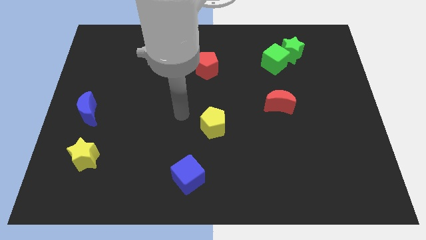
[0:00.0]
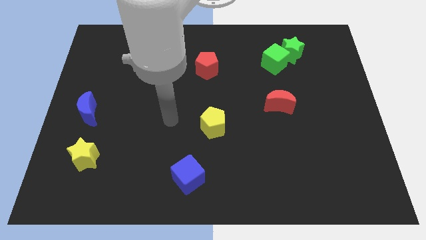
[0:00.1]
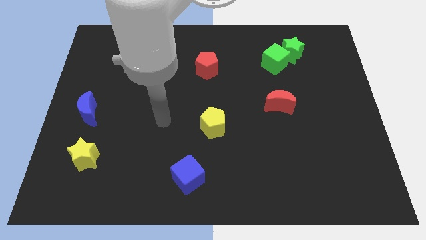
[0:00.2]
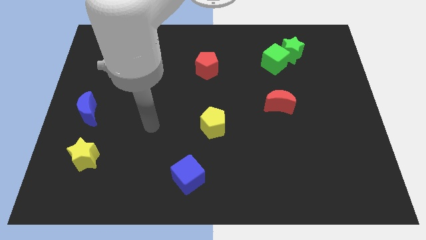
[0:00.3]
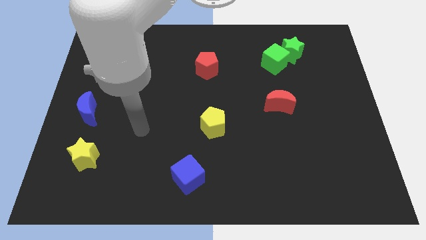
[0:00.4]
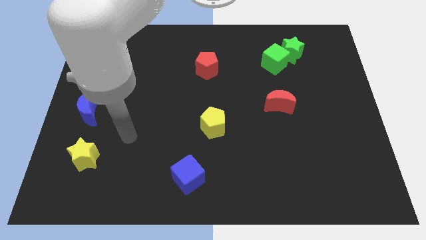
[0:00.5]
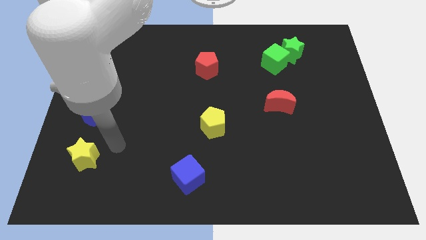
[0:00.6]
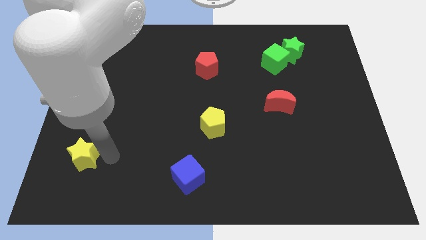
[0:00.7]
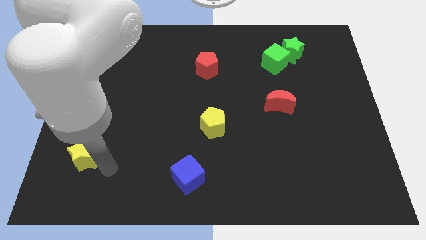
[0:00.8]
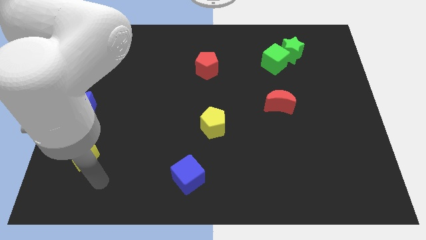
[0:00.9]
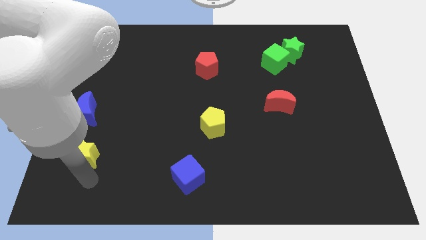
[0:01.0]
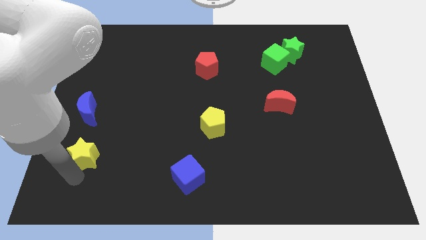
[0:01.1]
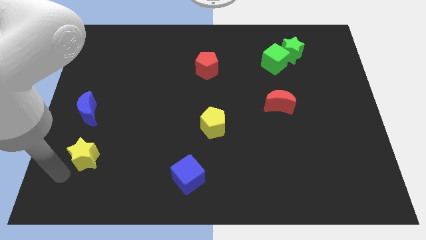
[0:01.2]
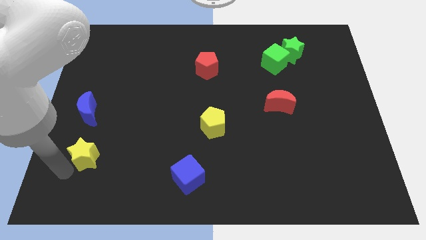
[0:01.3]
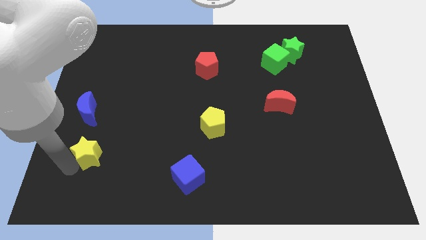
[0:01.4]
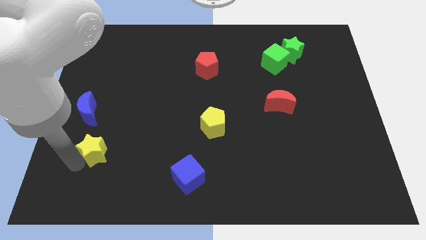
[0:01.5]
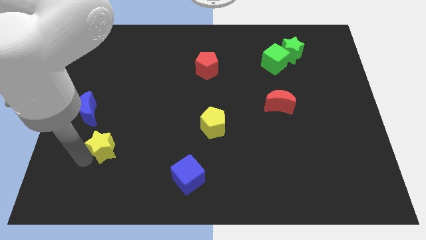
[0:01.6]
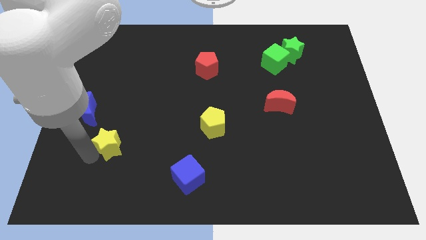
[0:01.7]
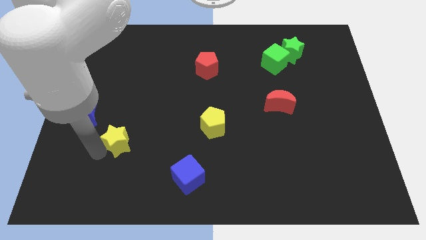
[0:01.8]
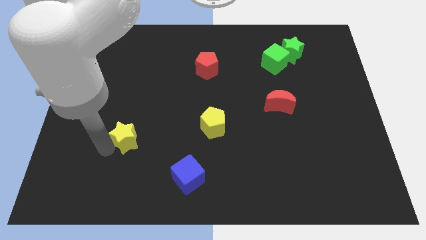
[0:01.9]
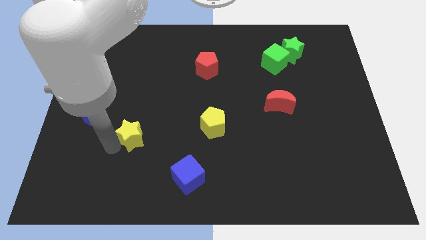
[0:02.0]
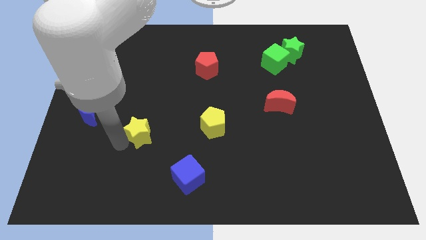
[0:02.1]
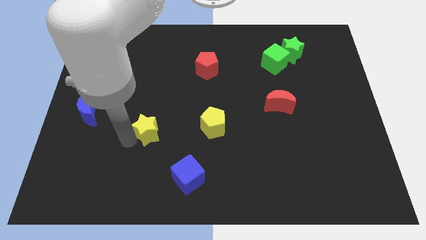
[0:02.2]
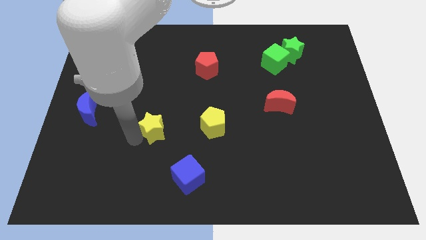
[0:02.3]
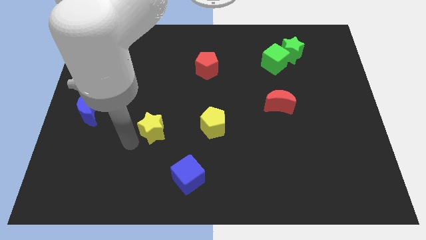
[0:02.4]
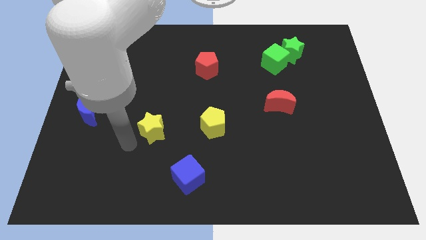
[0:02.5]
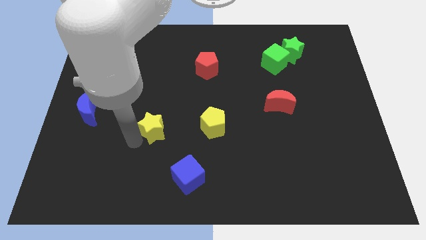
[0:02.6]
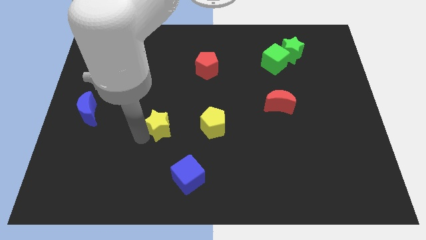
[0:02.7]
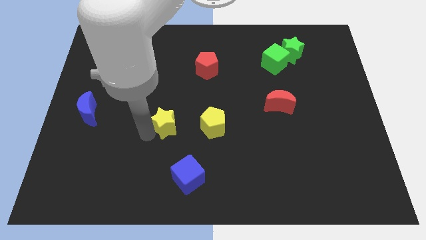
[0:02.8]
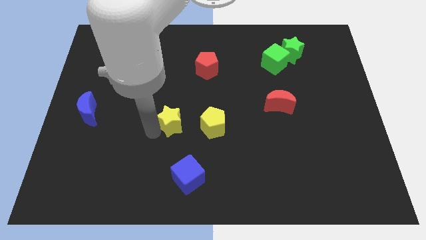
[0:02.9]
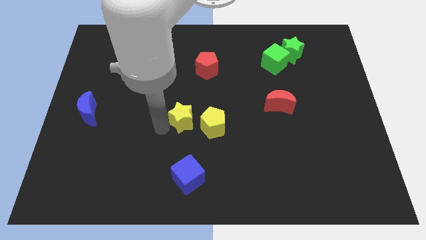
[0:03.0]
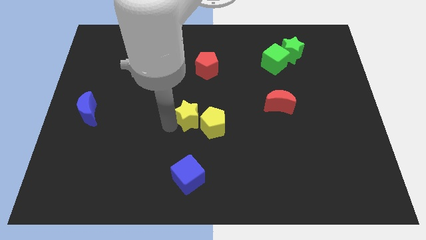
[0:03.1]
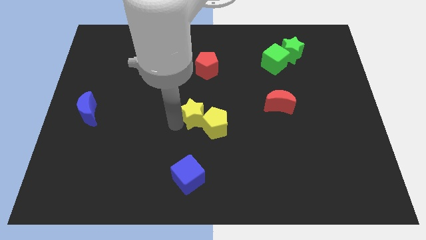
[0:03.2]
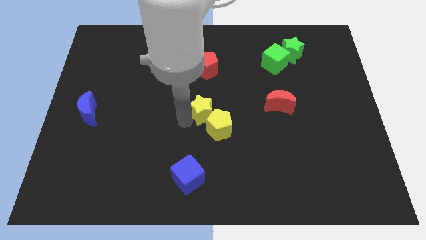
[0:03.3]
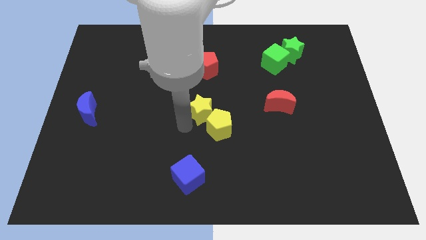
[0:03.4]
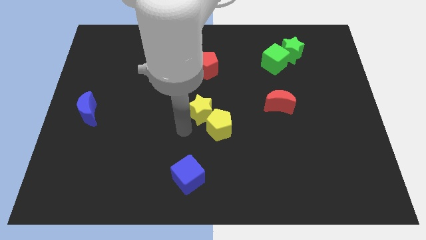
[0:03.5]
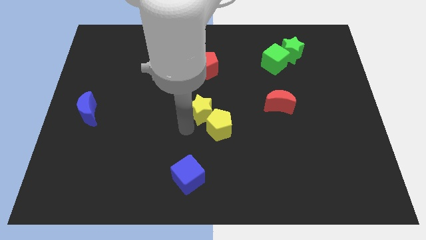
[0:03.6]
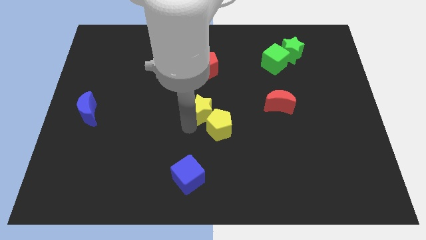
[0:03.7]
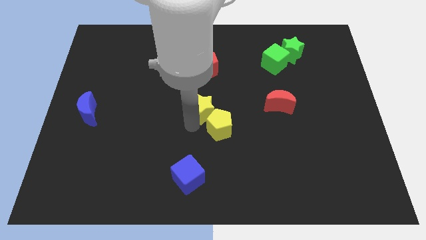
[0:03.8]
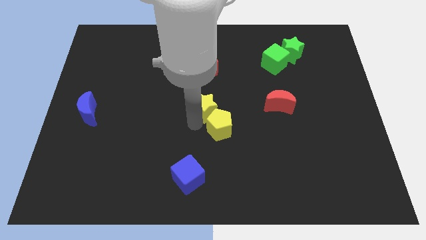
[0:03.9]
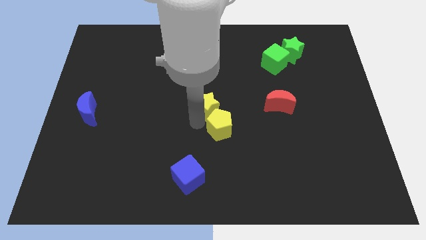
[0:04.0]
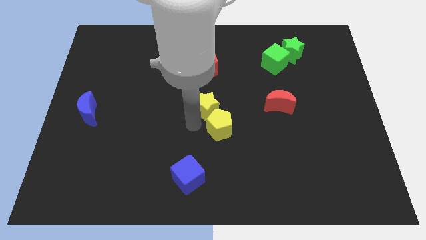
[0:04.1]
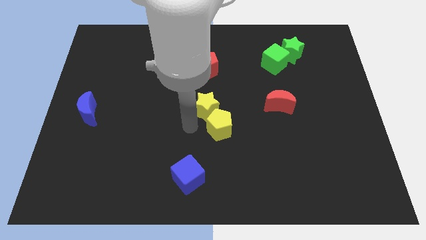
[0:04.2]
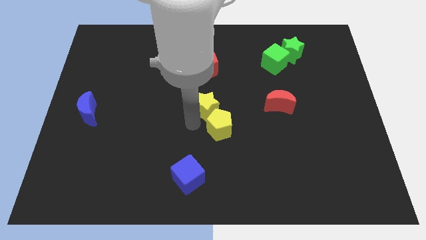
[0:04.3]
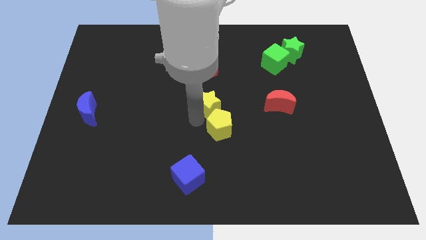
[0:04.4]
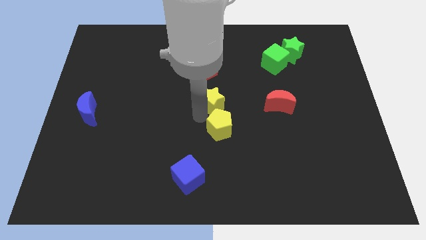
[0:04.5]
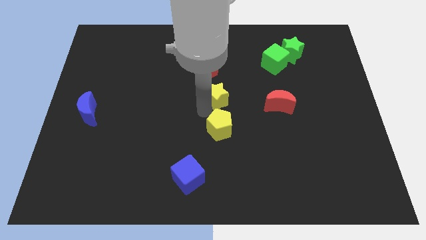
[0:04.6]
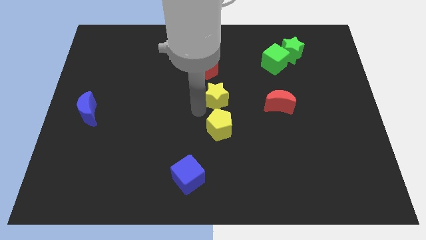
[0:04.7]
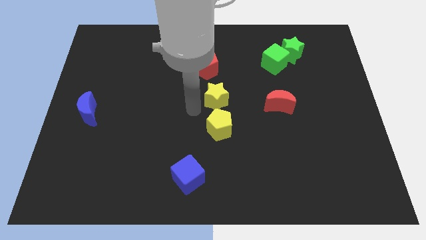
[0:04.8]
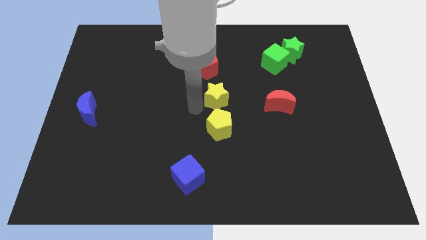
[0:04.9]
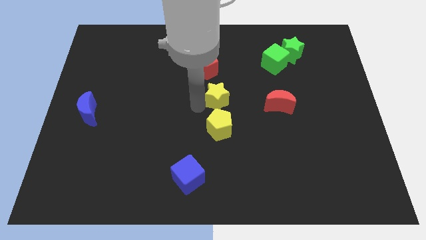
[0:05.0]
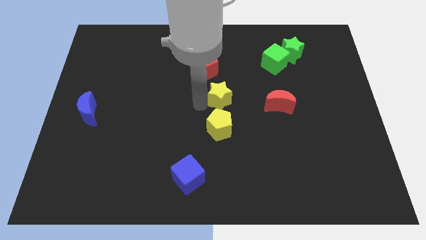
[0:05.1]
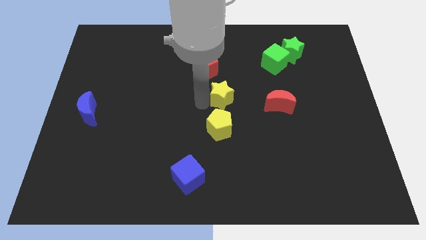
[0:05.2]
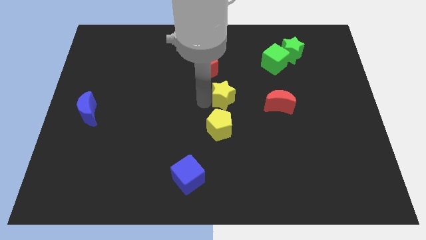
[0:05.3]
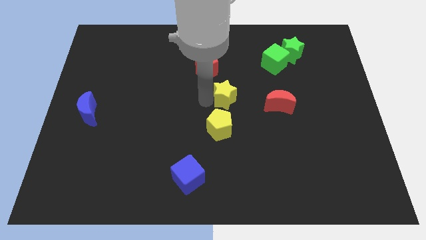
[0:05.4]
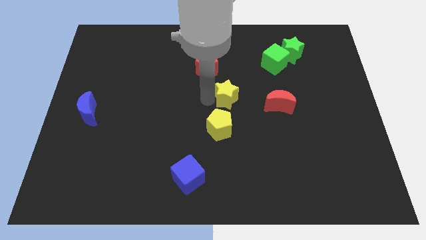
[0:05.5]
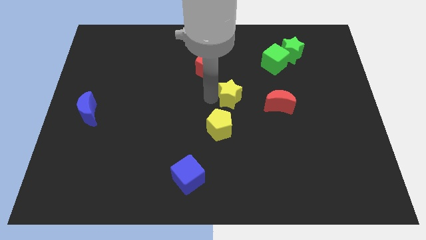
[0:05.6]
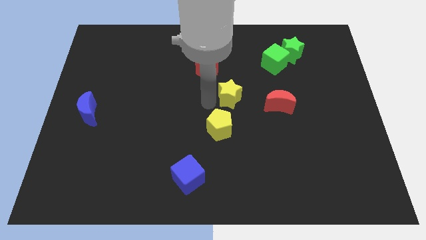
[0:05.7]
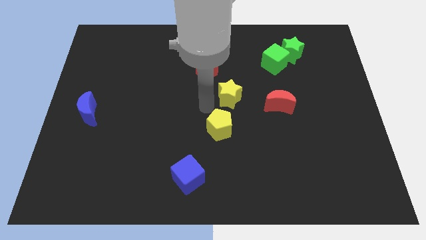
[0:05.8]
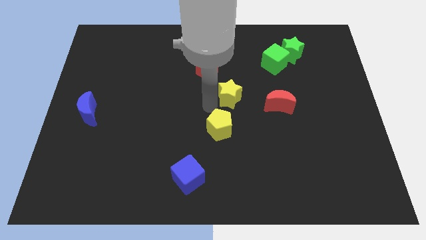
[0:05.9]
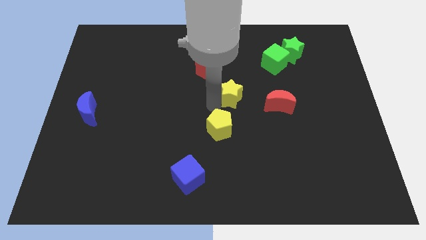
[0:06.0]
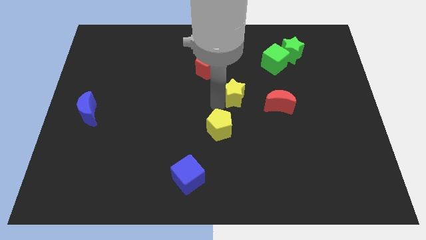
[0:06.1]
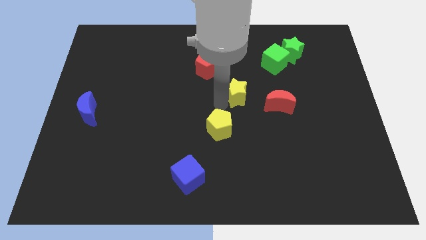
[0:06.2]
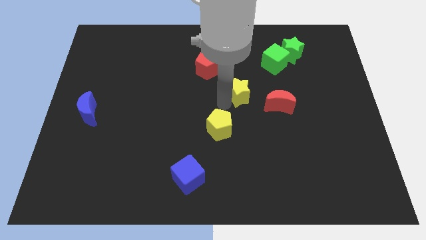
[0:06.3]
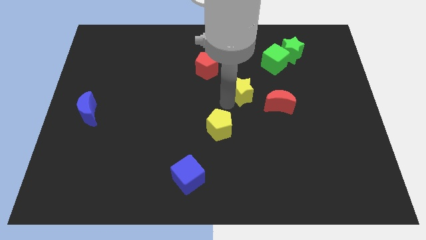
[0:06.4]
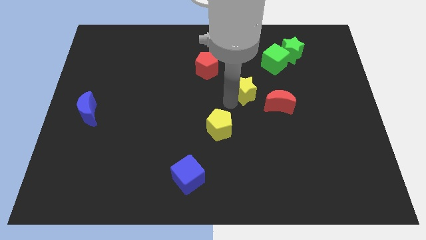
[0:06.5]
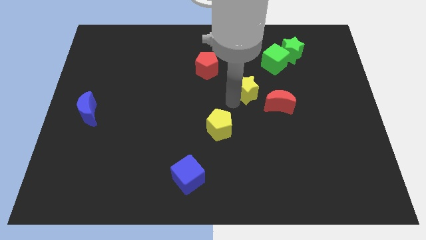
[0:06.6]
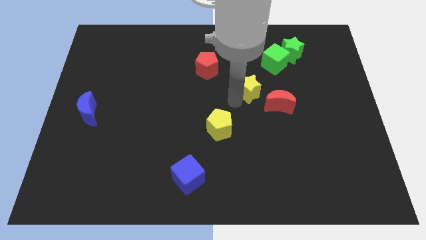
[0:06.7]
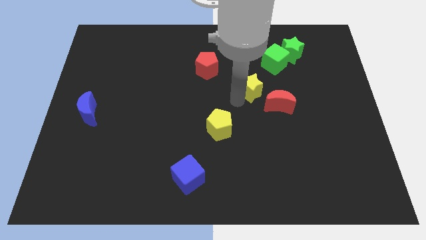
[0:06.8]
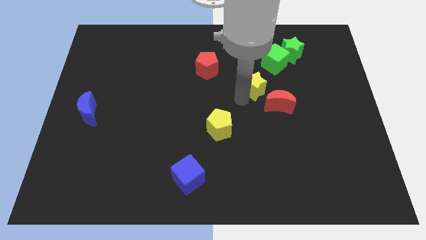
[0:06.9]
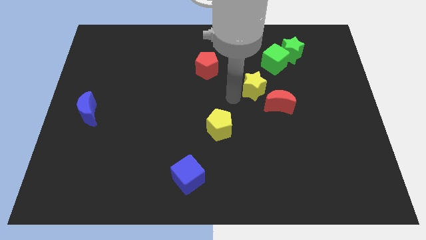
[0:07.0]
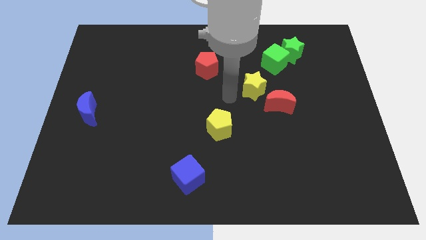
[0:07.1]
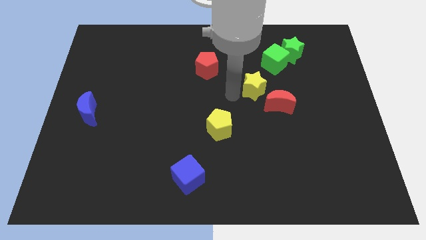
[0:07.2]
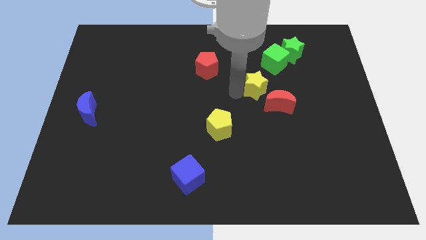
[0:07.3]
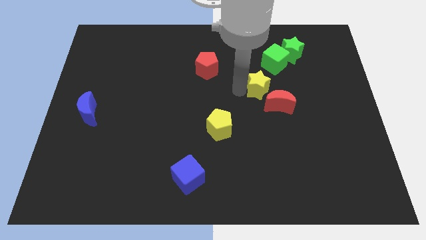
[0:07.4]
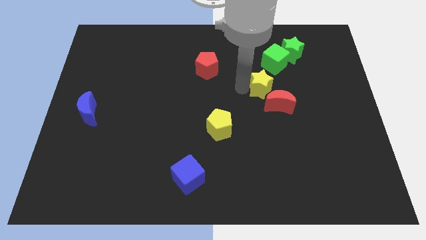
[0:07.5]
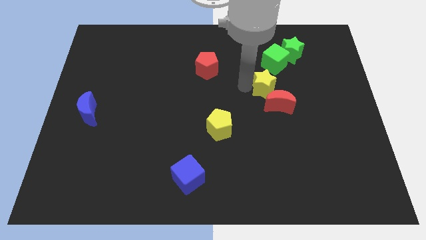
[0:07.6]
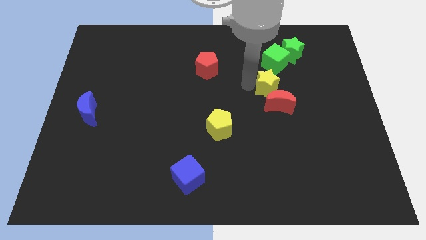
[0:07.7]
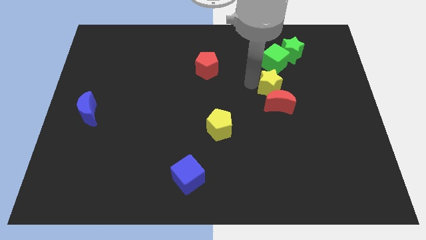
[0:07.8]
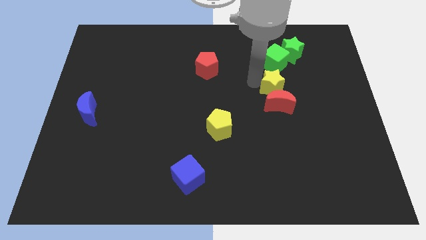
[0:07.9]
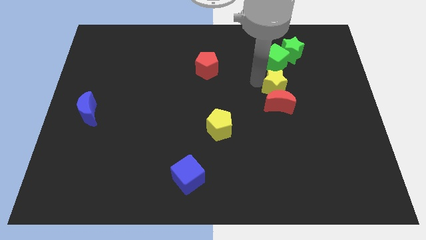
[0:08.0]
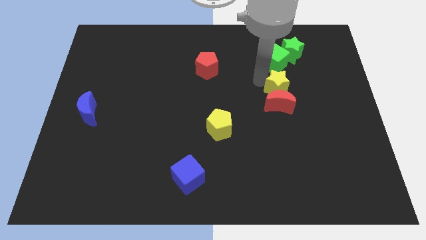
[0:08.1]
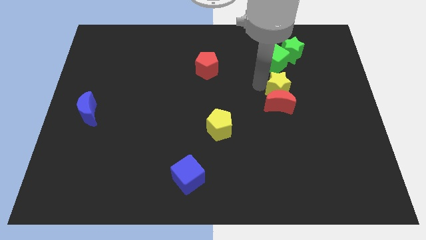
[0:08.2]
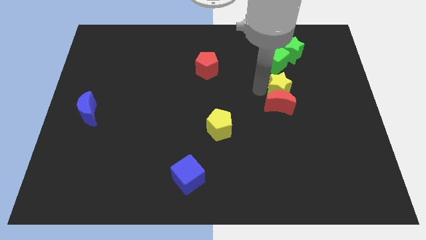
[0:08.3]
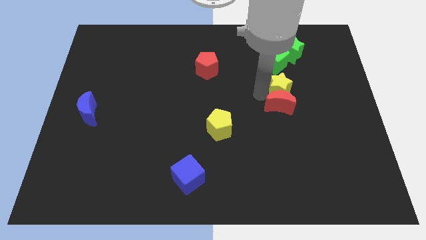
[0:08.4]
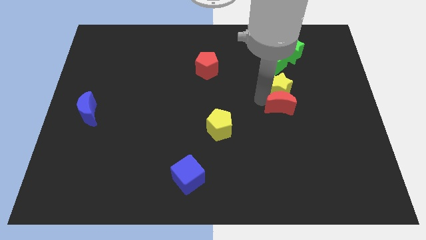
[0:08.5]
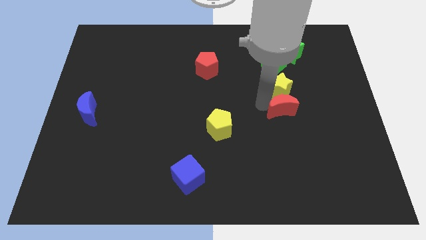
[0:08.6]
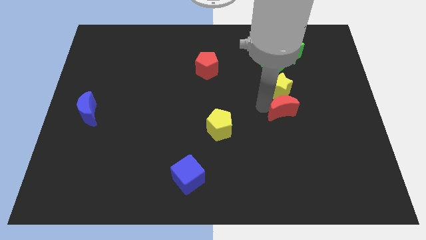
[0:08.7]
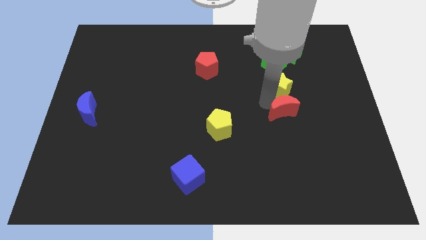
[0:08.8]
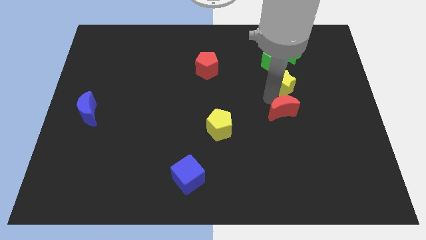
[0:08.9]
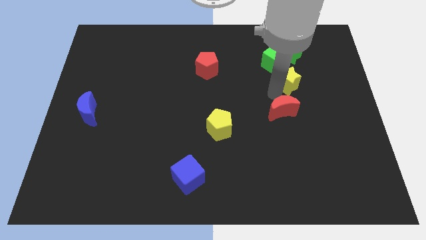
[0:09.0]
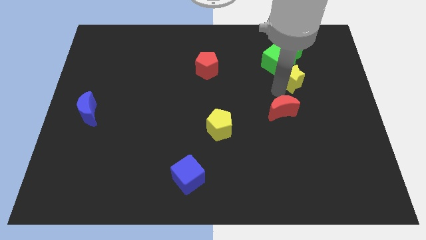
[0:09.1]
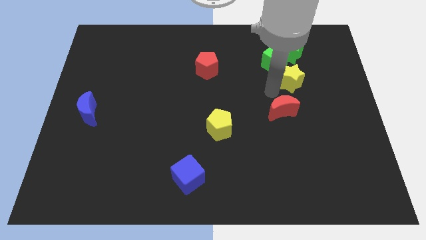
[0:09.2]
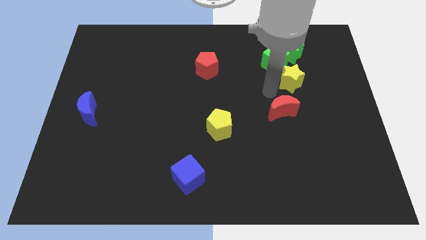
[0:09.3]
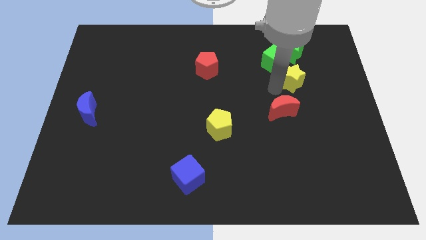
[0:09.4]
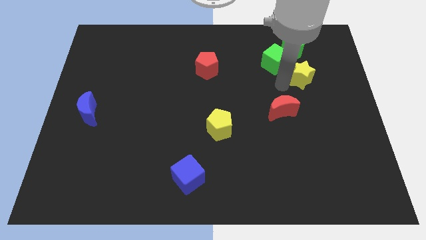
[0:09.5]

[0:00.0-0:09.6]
put the yellow star diagonally down and to the right of the green star
